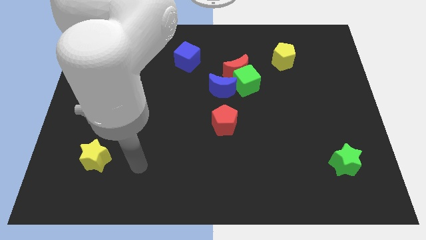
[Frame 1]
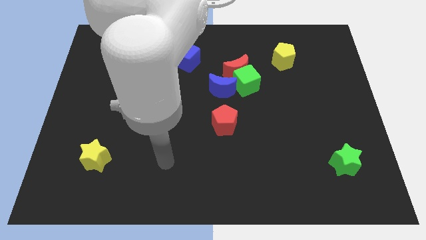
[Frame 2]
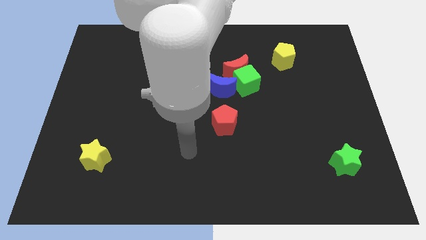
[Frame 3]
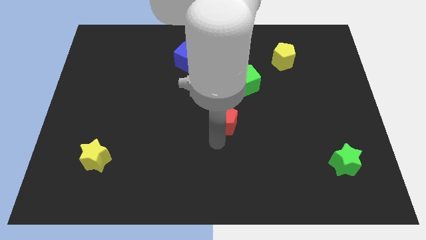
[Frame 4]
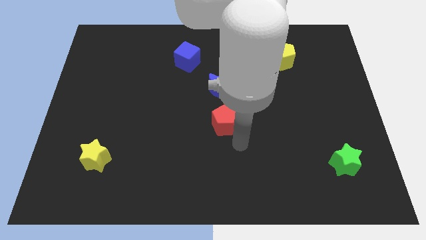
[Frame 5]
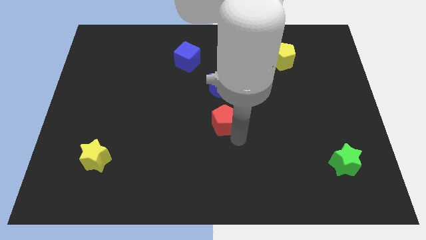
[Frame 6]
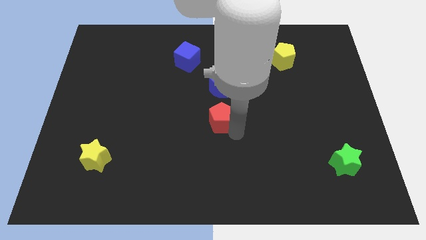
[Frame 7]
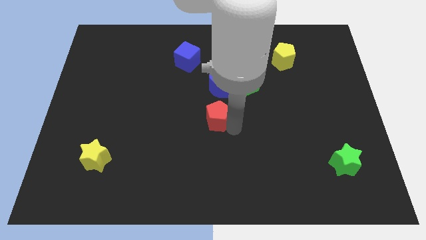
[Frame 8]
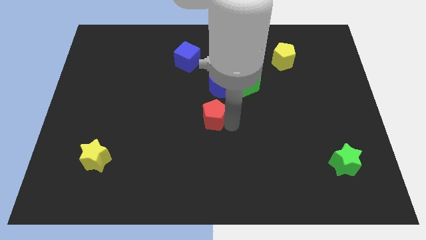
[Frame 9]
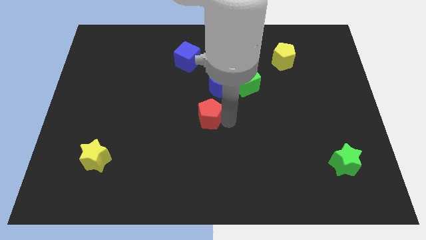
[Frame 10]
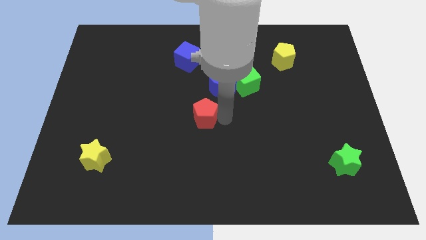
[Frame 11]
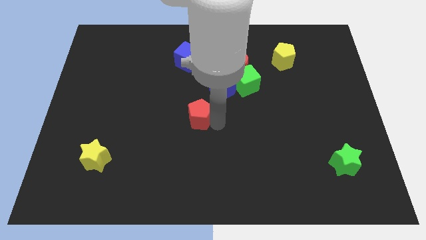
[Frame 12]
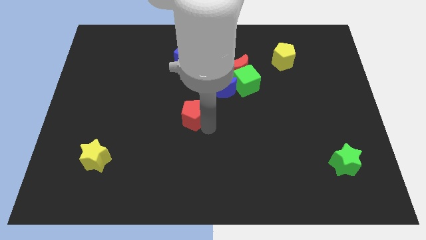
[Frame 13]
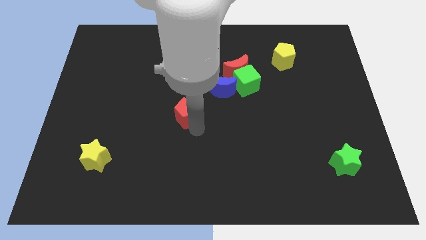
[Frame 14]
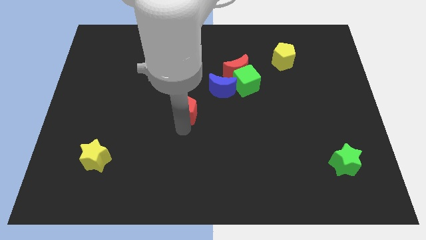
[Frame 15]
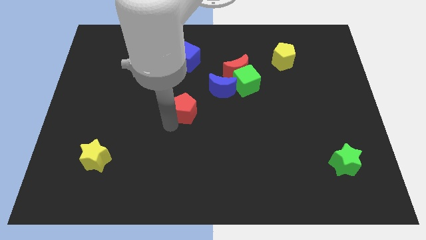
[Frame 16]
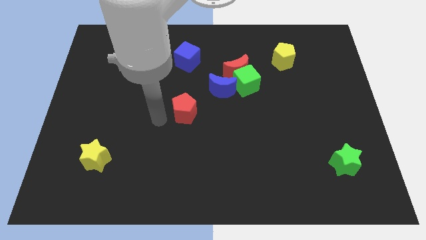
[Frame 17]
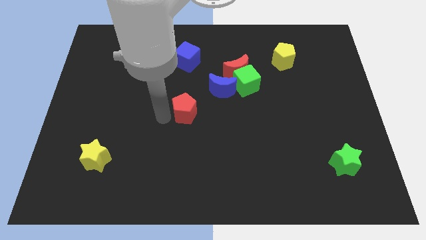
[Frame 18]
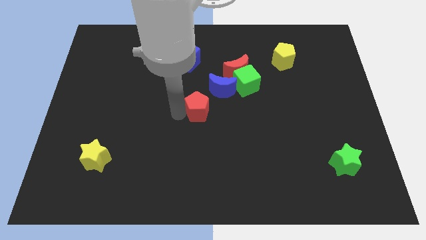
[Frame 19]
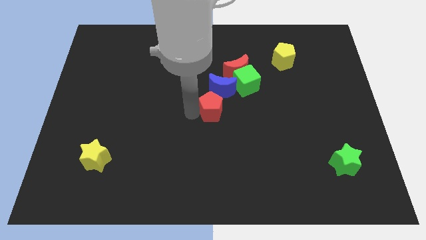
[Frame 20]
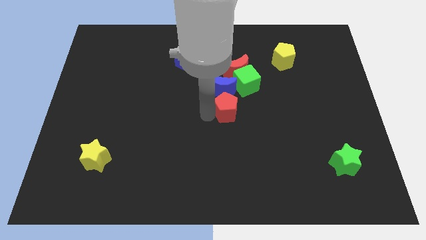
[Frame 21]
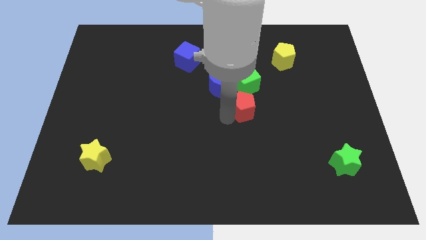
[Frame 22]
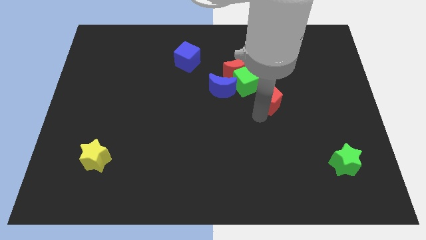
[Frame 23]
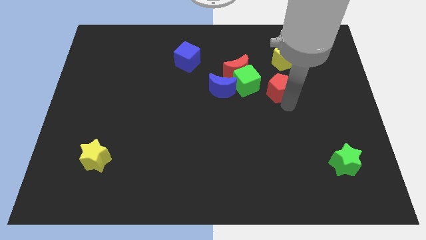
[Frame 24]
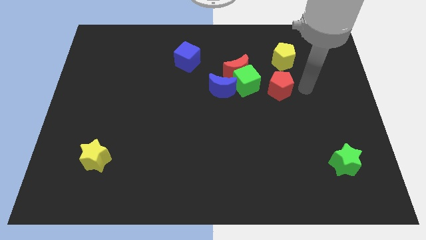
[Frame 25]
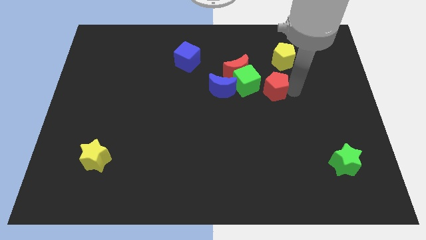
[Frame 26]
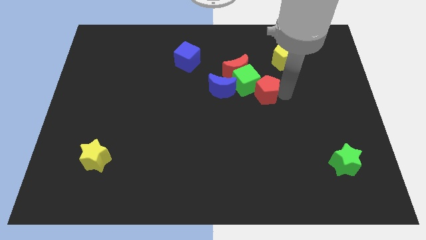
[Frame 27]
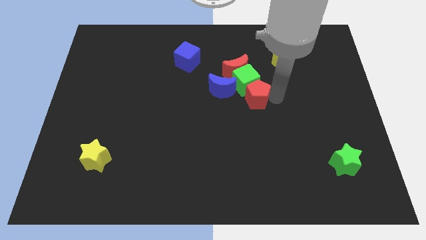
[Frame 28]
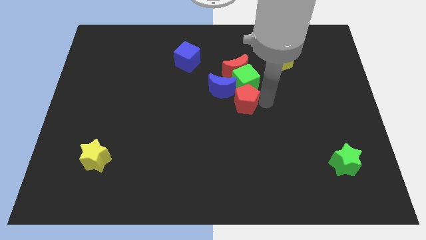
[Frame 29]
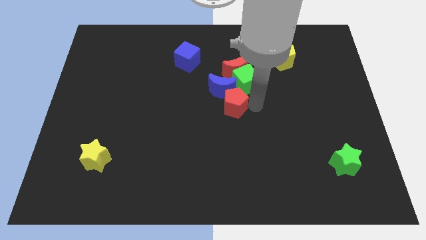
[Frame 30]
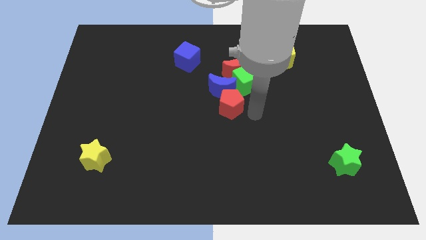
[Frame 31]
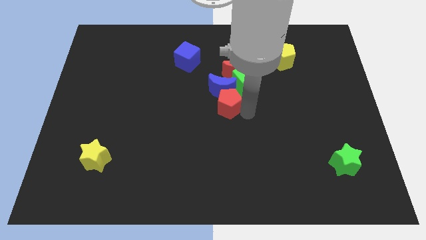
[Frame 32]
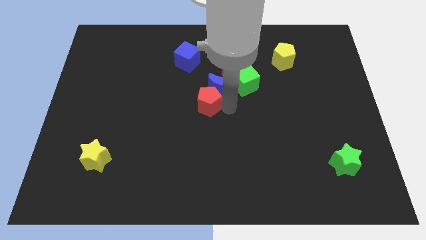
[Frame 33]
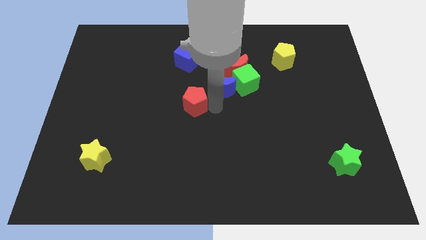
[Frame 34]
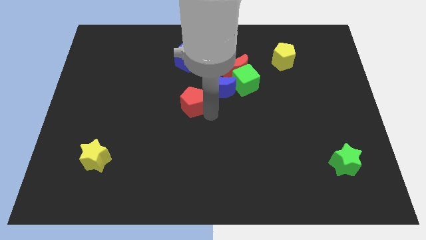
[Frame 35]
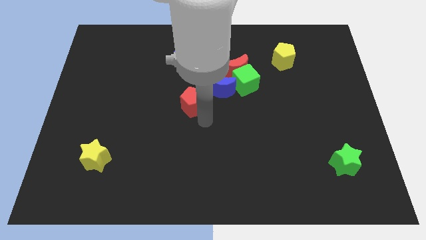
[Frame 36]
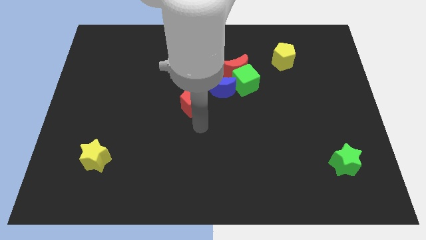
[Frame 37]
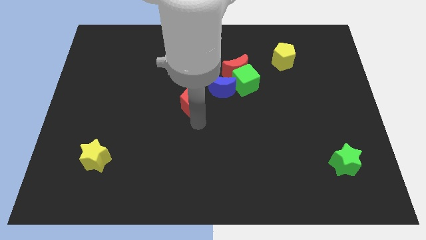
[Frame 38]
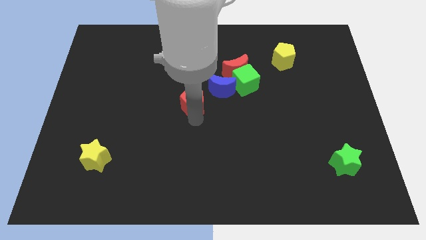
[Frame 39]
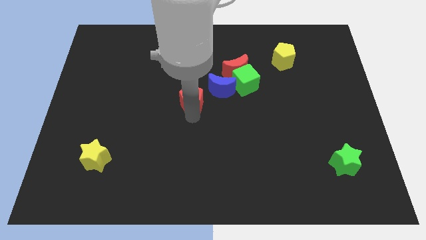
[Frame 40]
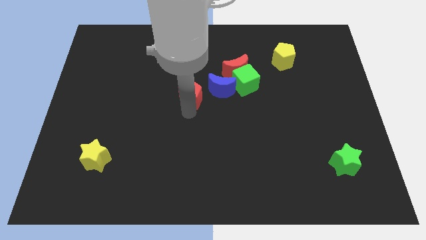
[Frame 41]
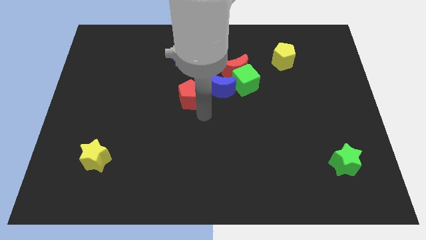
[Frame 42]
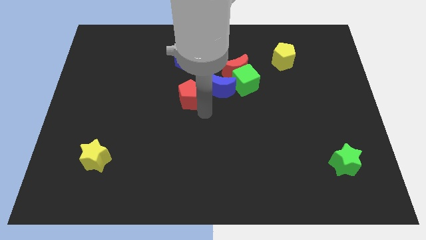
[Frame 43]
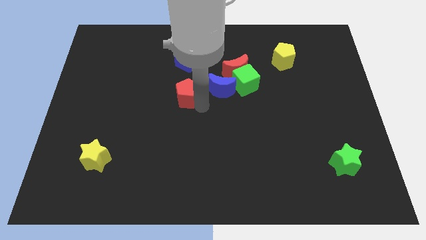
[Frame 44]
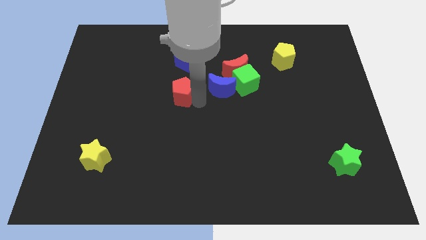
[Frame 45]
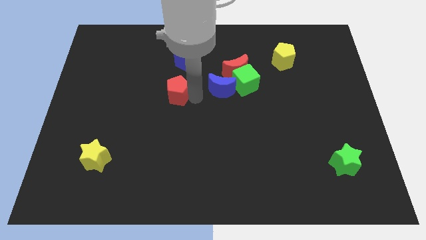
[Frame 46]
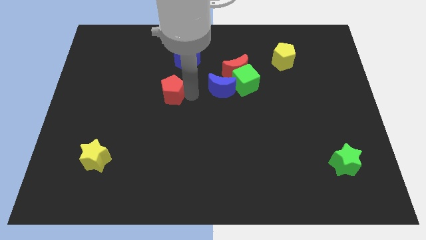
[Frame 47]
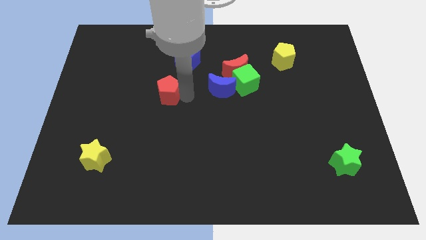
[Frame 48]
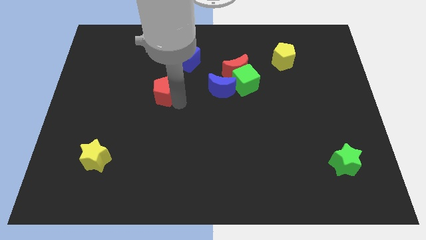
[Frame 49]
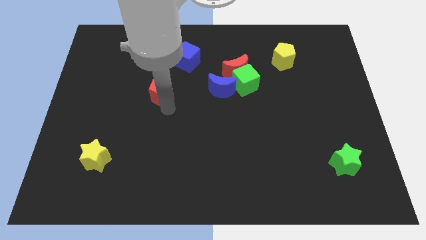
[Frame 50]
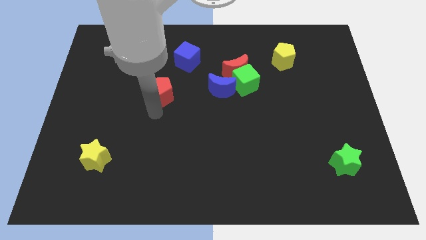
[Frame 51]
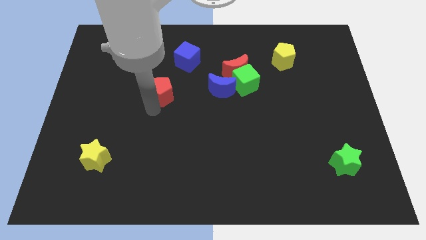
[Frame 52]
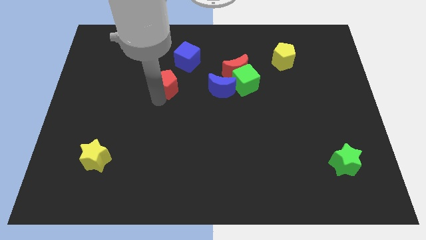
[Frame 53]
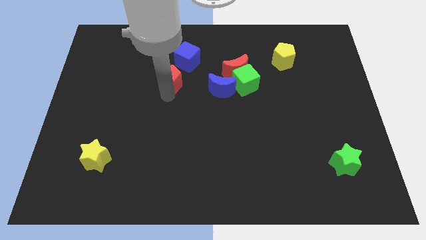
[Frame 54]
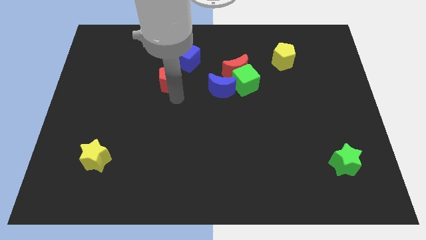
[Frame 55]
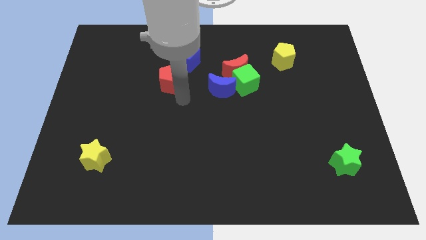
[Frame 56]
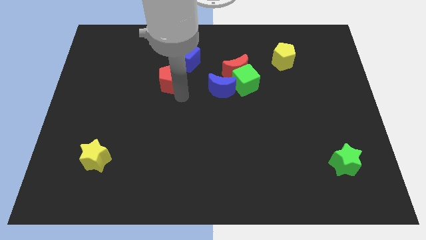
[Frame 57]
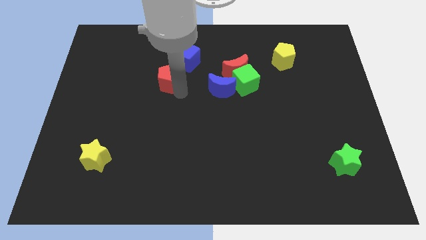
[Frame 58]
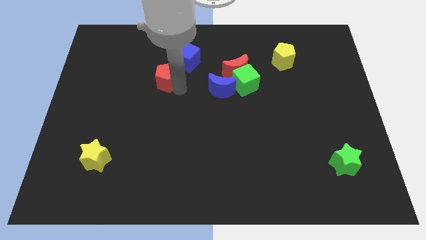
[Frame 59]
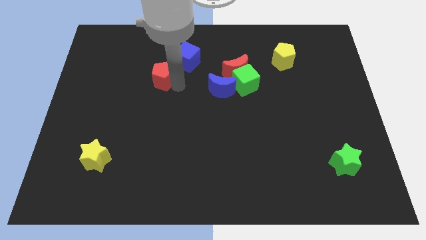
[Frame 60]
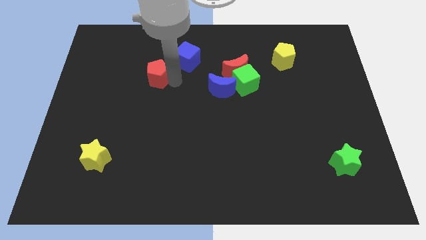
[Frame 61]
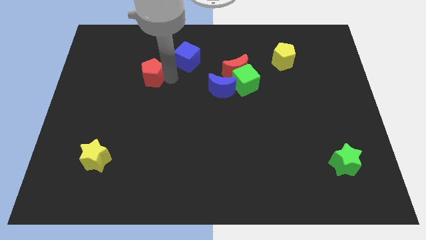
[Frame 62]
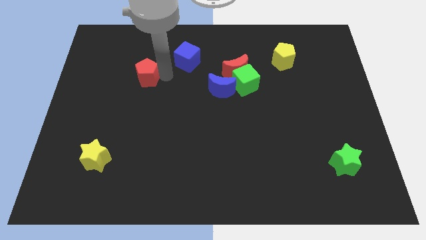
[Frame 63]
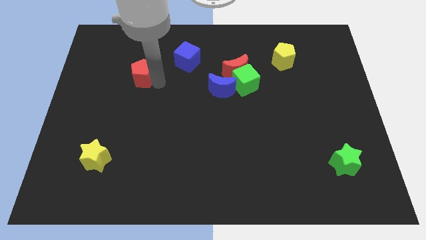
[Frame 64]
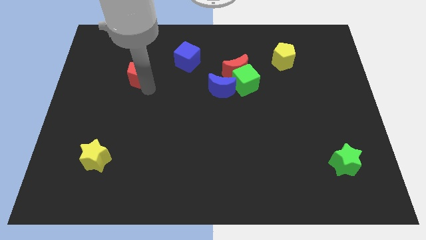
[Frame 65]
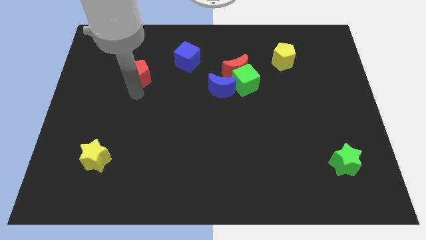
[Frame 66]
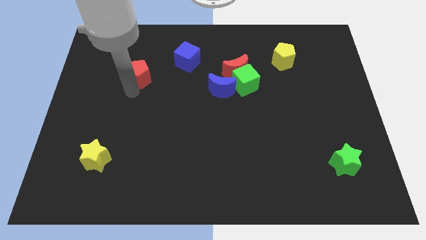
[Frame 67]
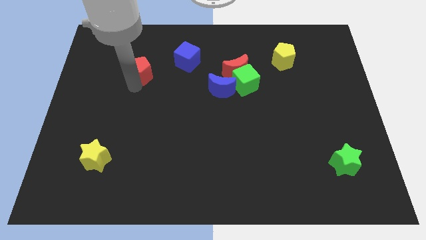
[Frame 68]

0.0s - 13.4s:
put the red pentagon left of the blue cube
